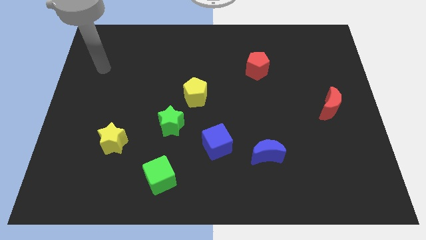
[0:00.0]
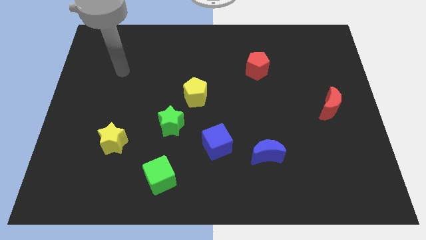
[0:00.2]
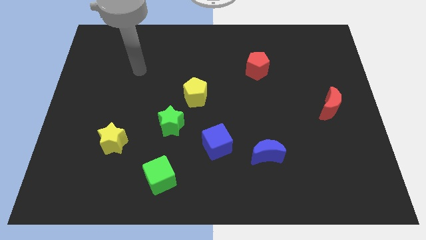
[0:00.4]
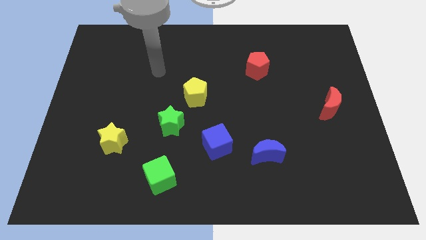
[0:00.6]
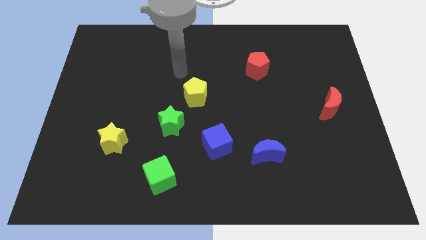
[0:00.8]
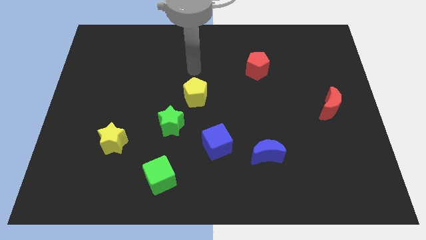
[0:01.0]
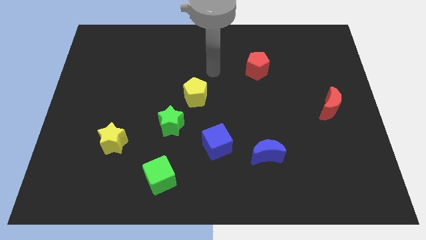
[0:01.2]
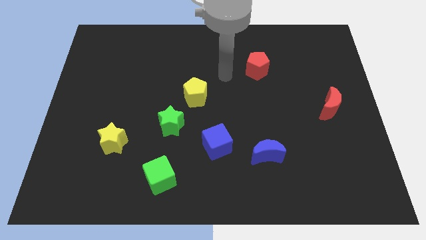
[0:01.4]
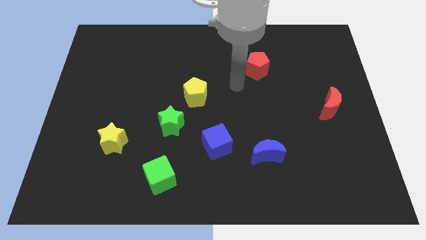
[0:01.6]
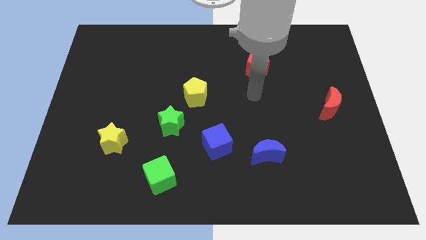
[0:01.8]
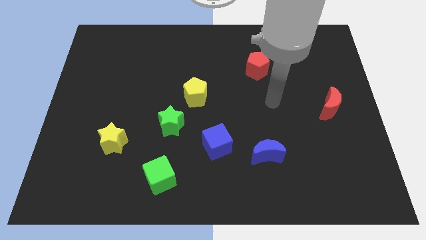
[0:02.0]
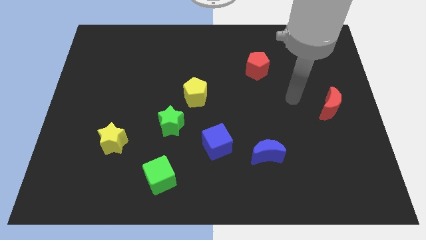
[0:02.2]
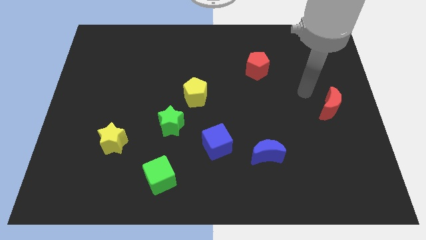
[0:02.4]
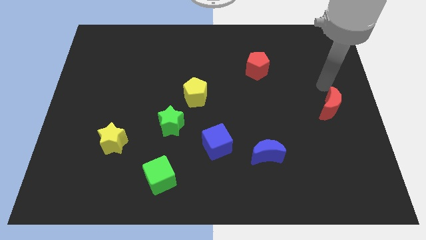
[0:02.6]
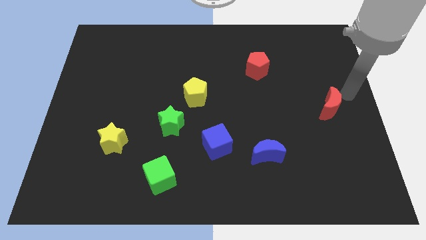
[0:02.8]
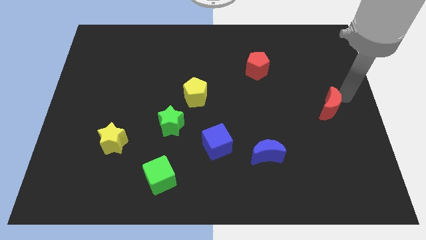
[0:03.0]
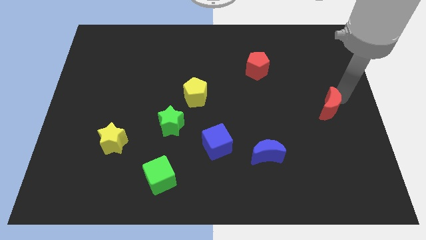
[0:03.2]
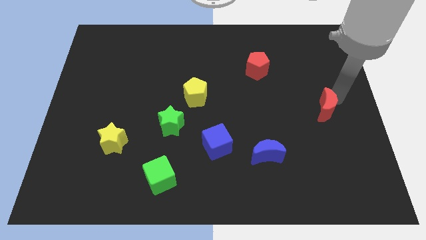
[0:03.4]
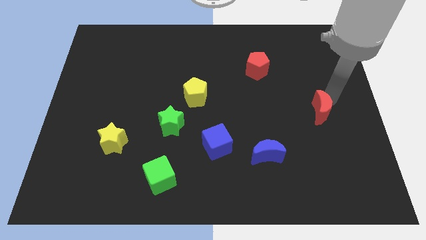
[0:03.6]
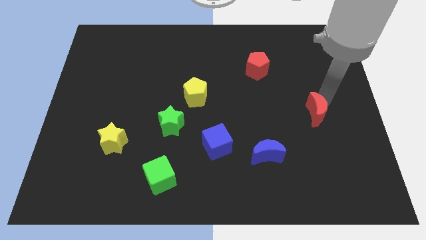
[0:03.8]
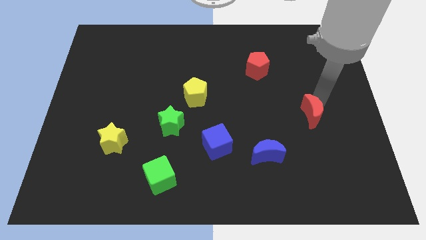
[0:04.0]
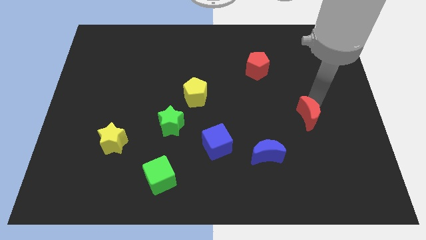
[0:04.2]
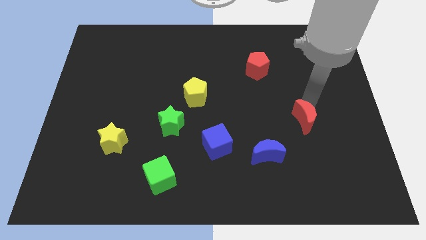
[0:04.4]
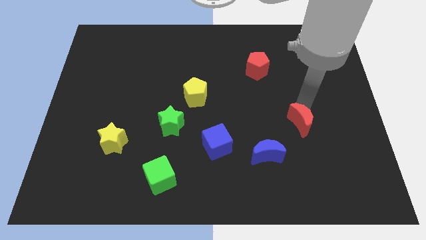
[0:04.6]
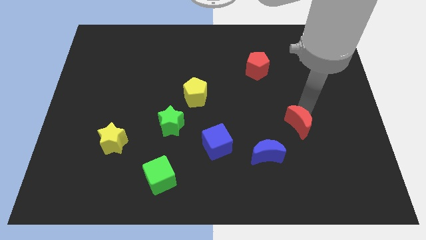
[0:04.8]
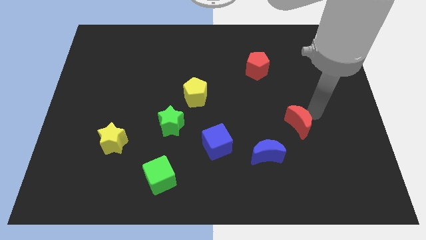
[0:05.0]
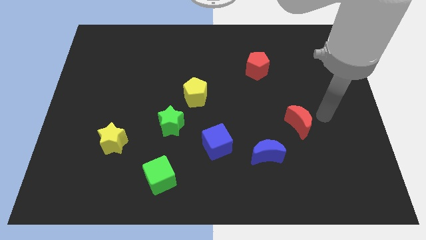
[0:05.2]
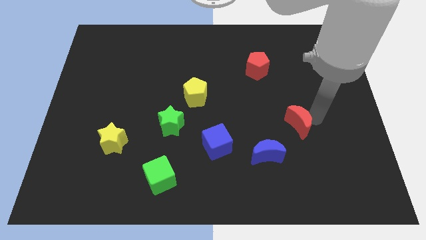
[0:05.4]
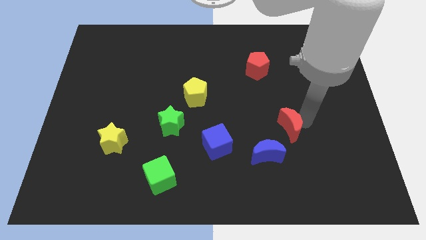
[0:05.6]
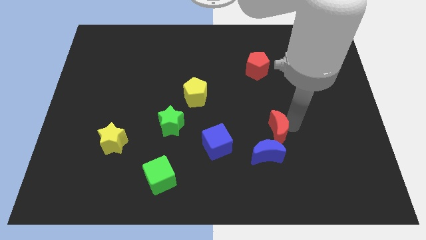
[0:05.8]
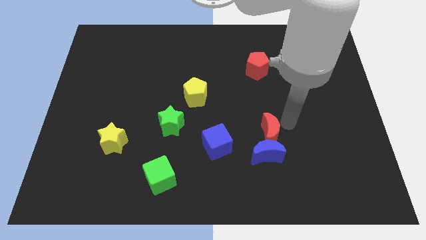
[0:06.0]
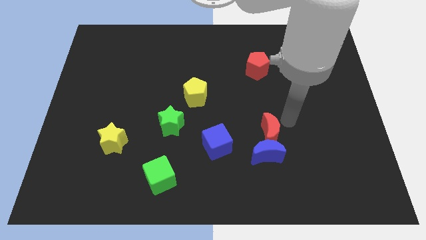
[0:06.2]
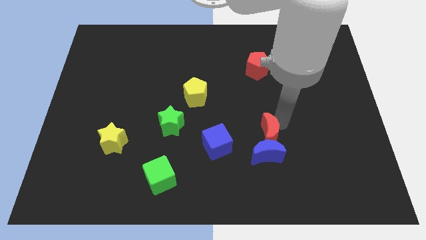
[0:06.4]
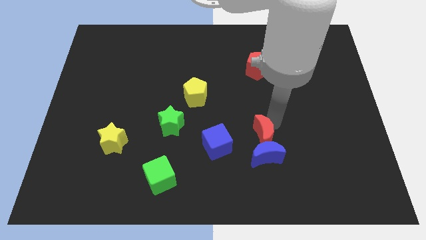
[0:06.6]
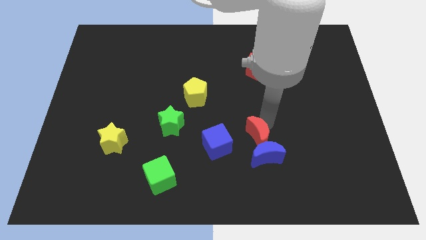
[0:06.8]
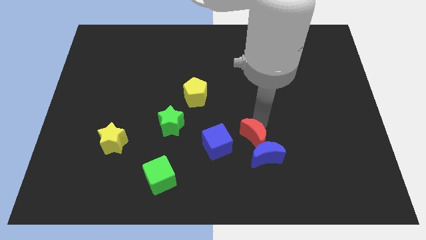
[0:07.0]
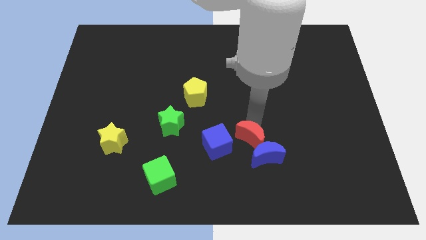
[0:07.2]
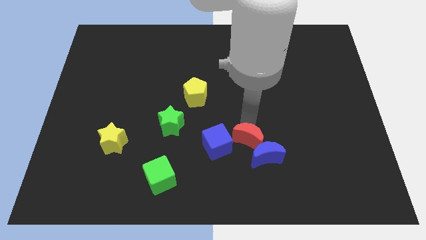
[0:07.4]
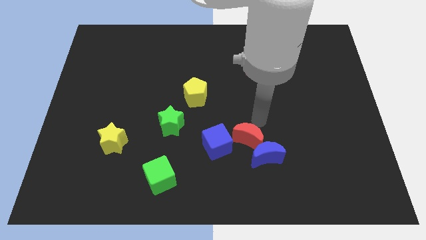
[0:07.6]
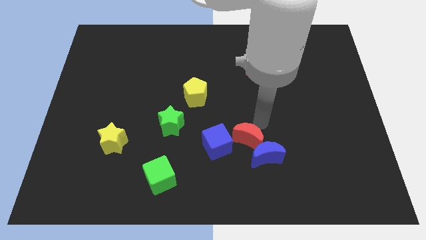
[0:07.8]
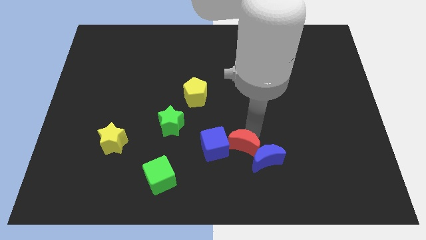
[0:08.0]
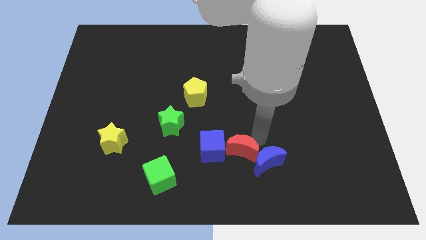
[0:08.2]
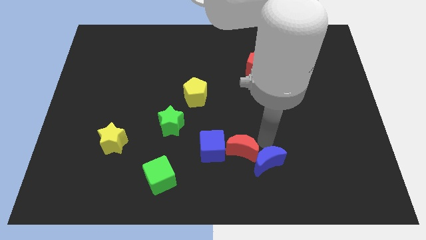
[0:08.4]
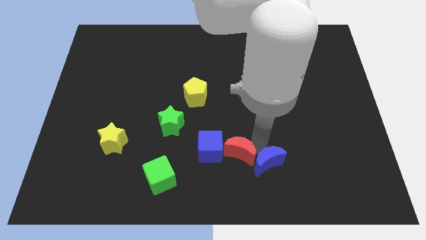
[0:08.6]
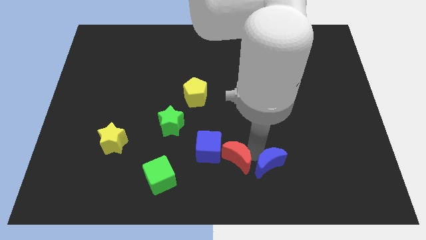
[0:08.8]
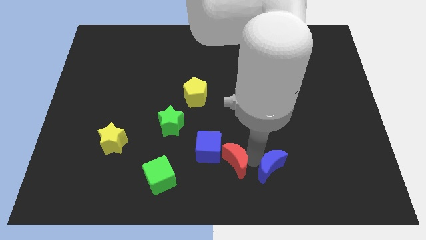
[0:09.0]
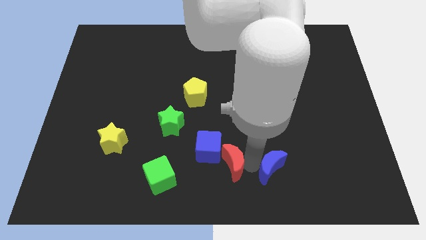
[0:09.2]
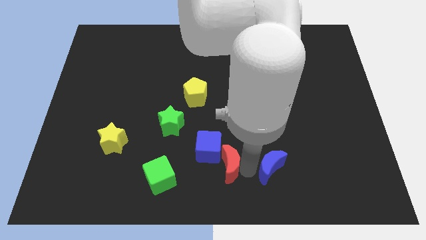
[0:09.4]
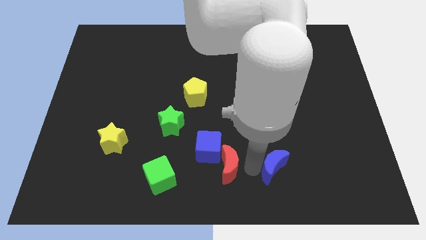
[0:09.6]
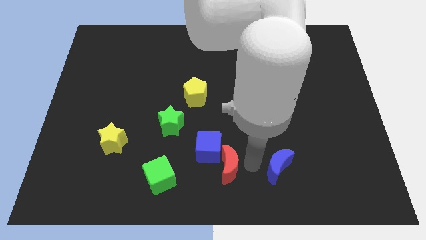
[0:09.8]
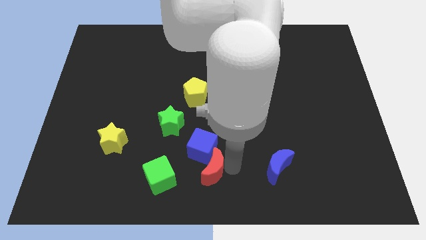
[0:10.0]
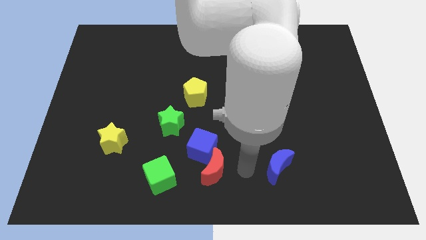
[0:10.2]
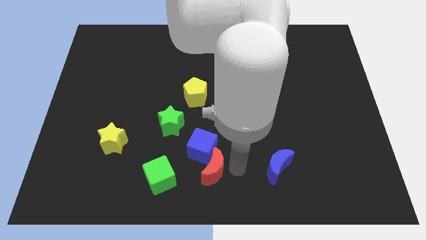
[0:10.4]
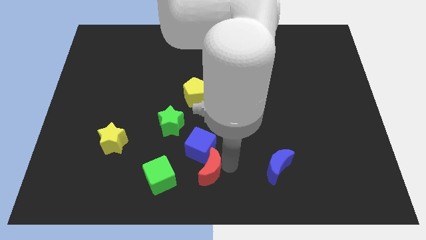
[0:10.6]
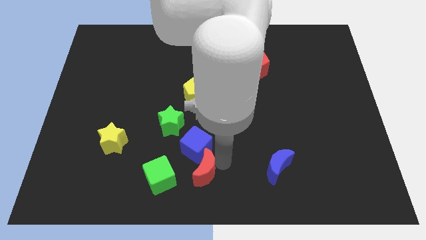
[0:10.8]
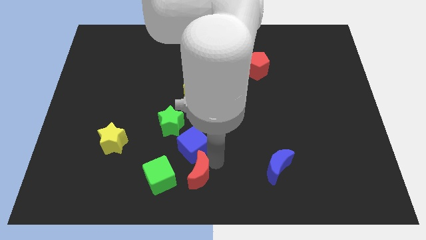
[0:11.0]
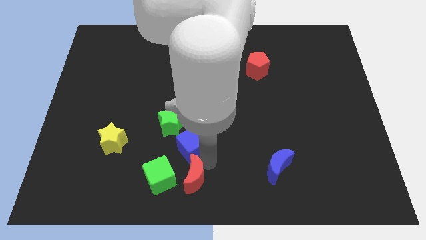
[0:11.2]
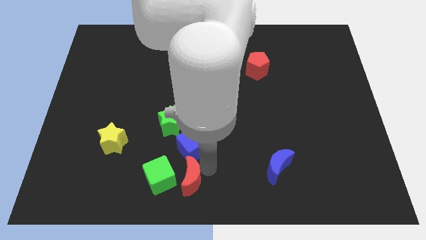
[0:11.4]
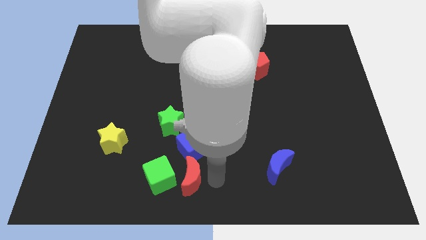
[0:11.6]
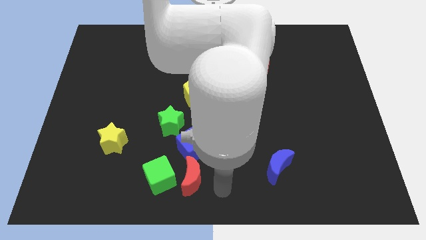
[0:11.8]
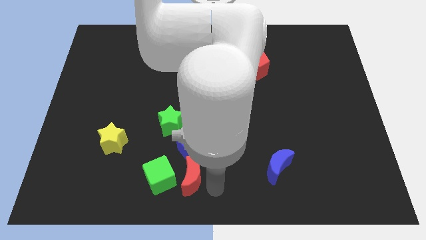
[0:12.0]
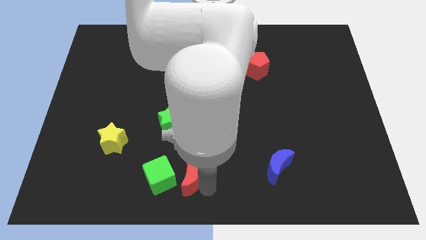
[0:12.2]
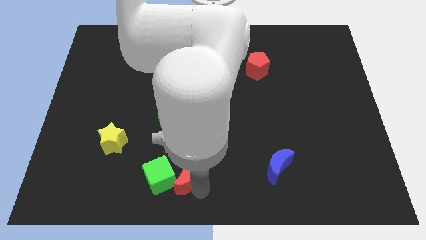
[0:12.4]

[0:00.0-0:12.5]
slide the red moon to the bottom left of the blue cube

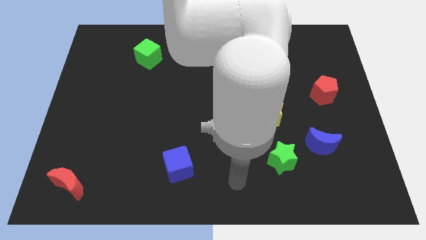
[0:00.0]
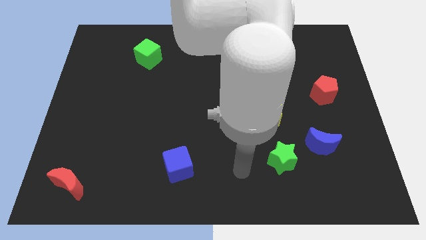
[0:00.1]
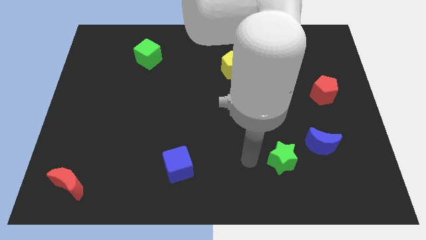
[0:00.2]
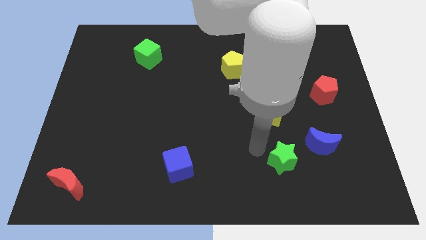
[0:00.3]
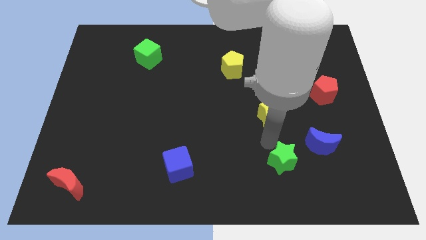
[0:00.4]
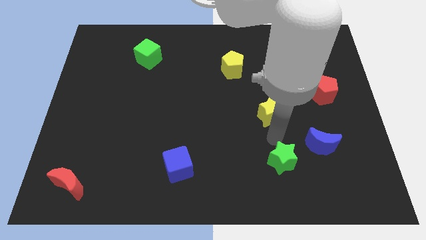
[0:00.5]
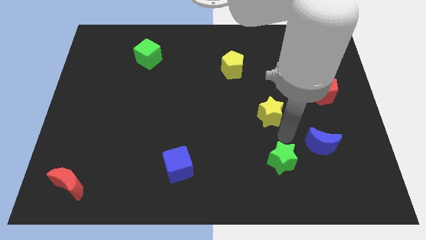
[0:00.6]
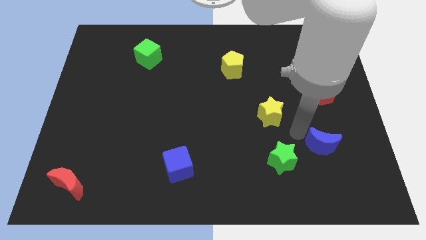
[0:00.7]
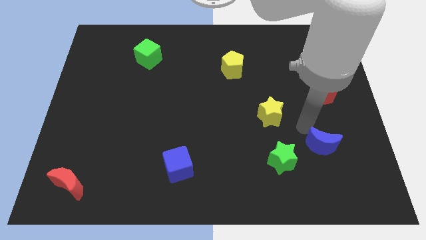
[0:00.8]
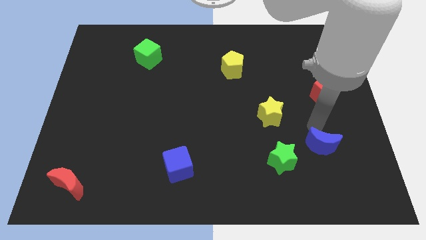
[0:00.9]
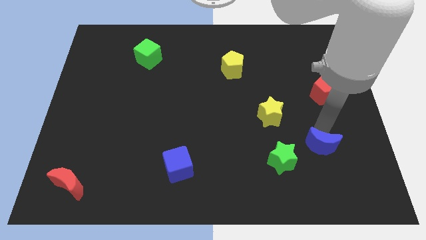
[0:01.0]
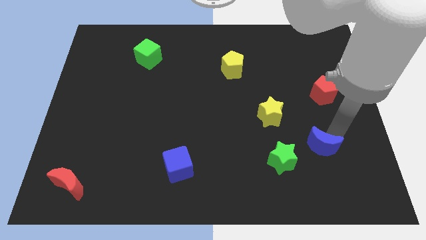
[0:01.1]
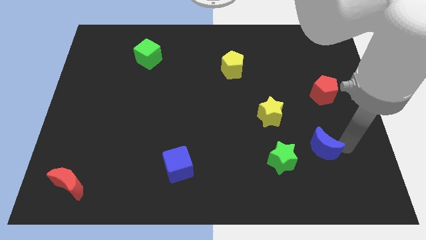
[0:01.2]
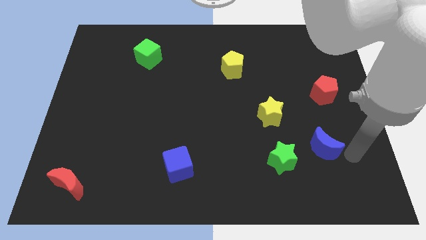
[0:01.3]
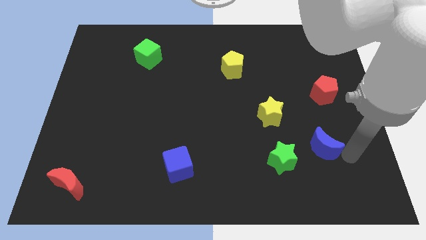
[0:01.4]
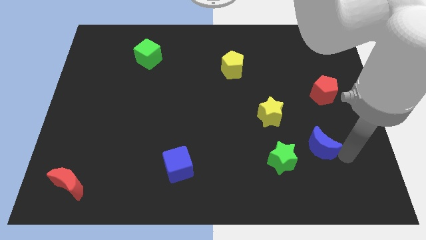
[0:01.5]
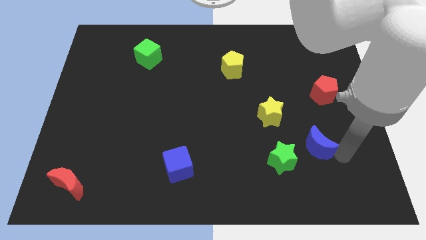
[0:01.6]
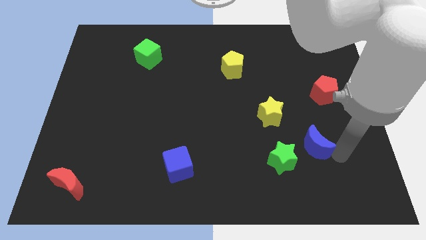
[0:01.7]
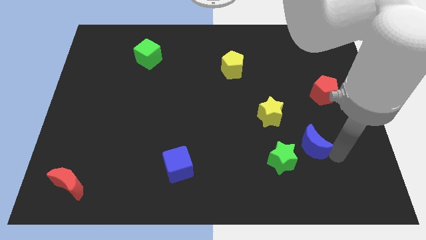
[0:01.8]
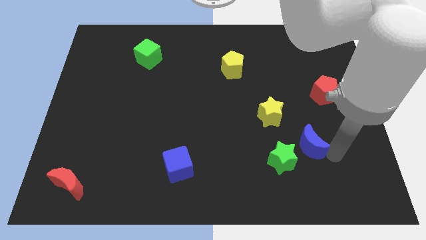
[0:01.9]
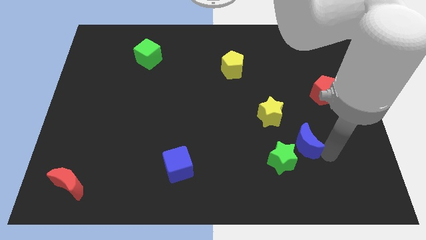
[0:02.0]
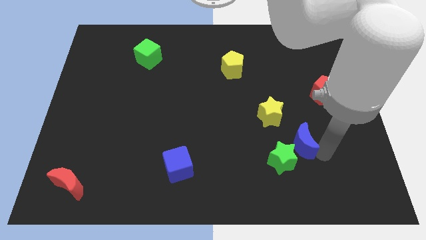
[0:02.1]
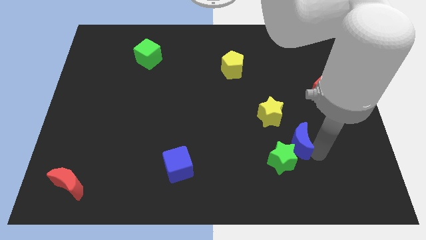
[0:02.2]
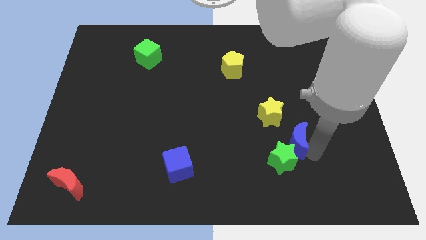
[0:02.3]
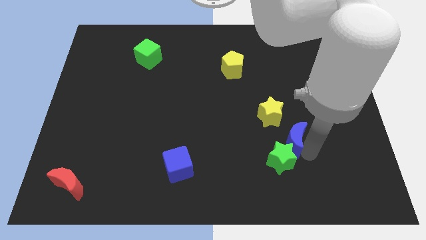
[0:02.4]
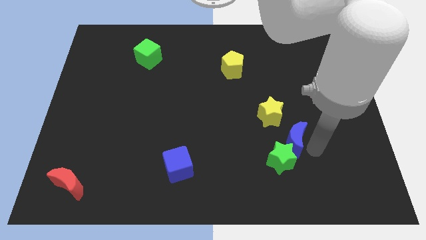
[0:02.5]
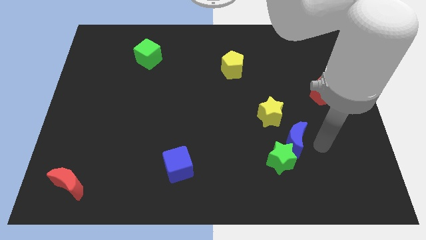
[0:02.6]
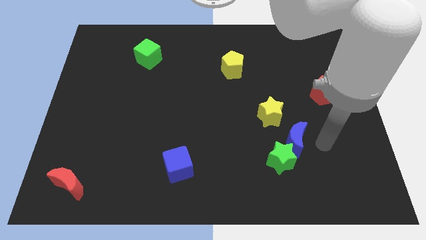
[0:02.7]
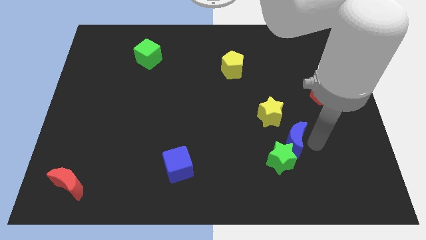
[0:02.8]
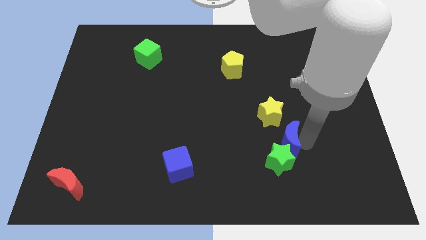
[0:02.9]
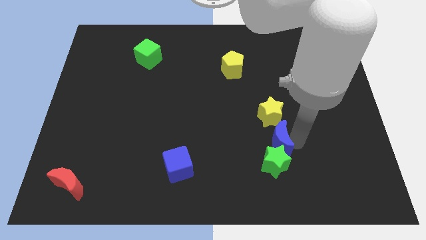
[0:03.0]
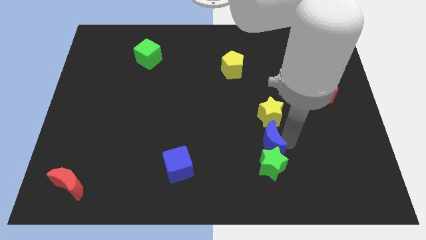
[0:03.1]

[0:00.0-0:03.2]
move the blue moon diagonally up and to the left of the green star
